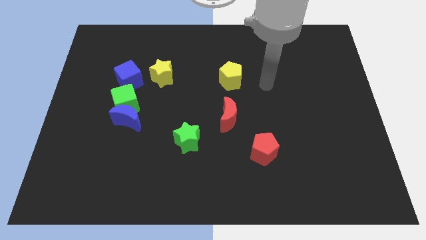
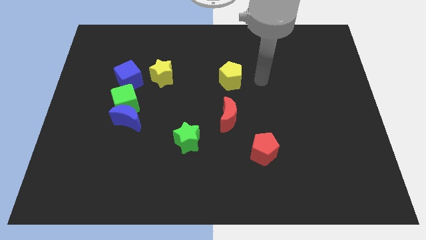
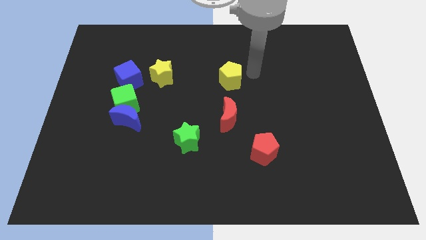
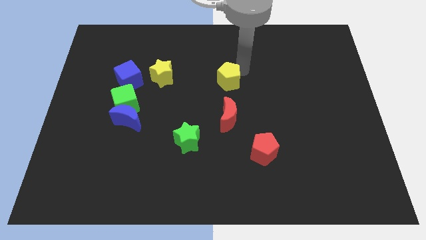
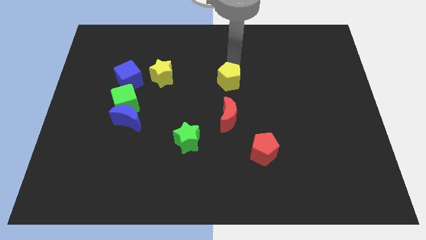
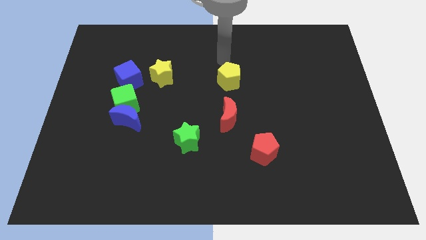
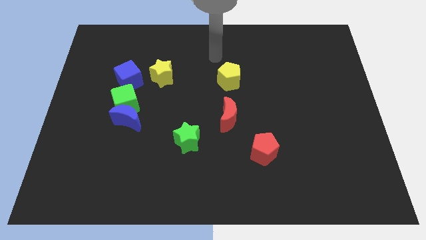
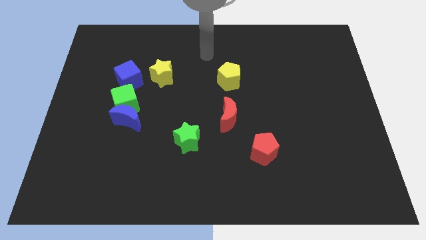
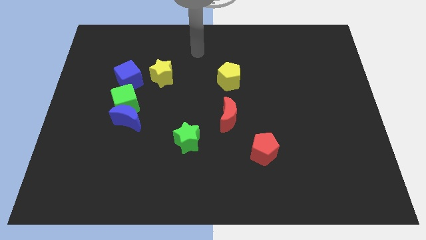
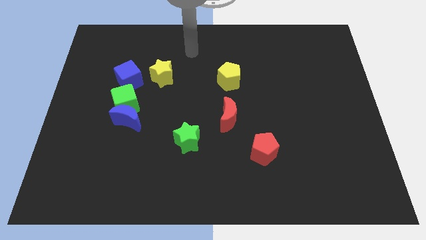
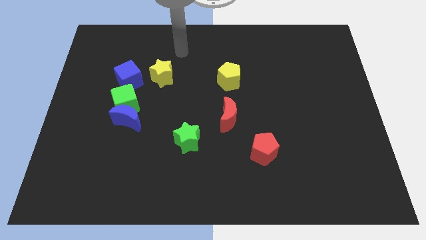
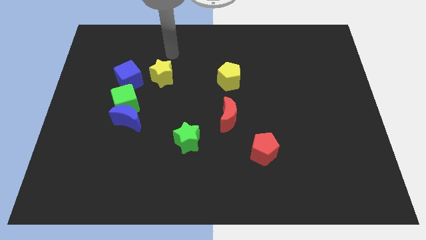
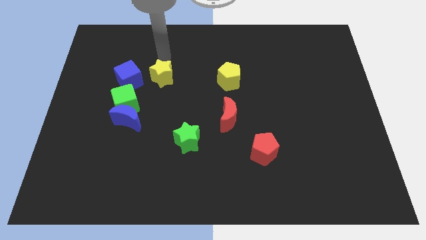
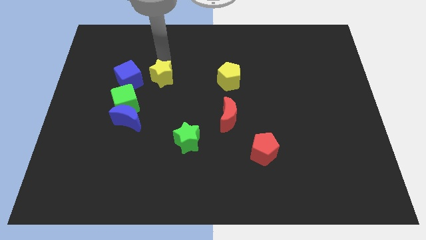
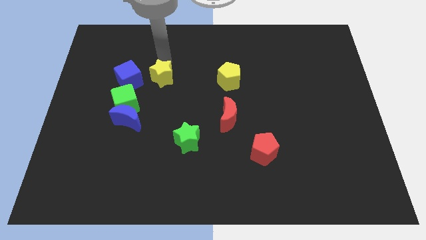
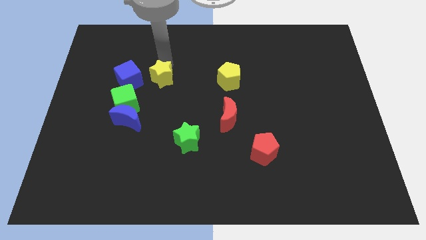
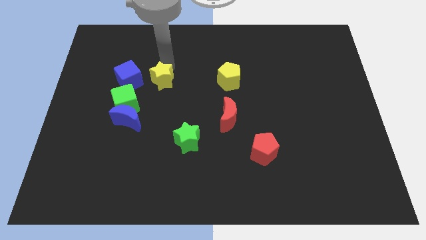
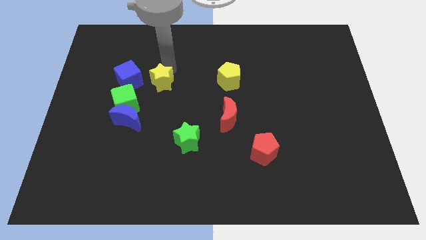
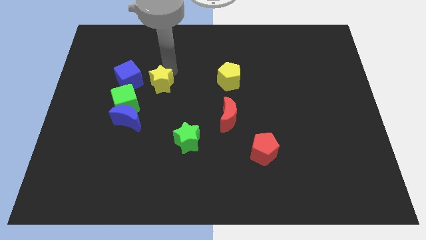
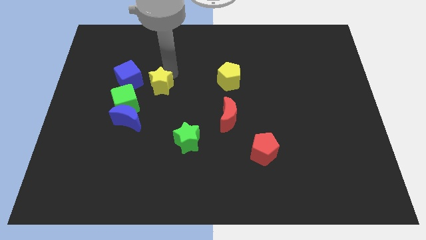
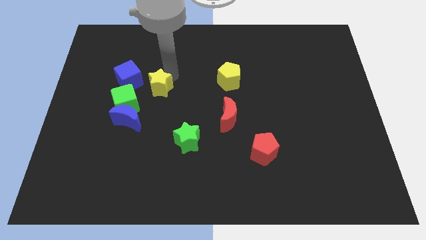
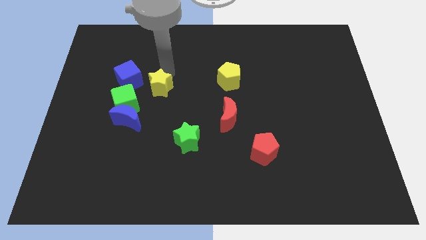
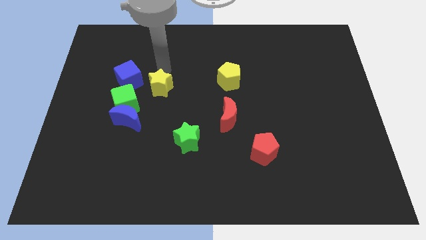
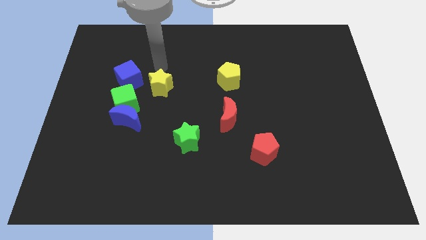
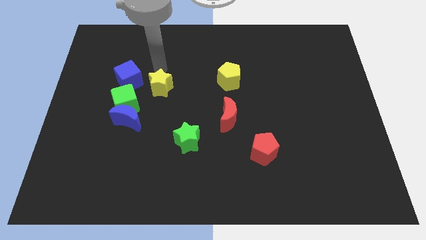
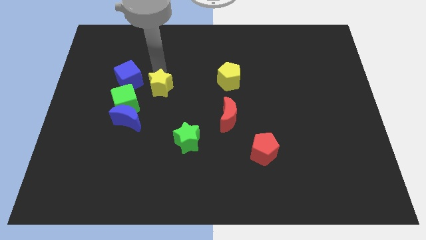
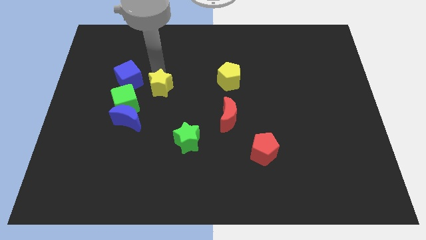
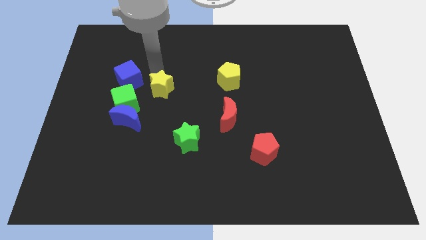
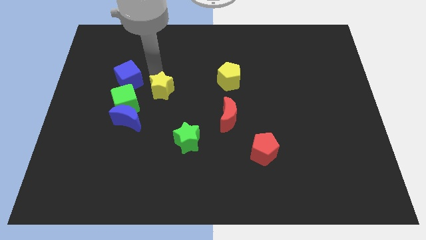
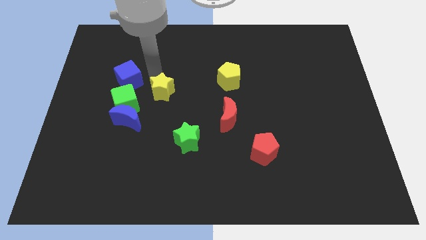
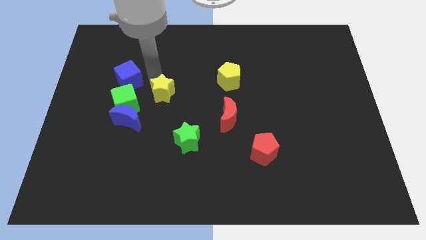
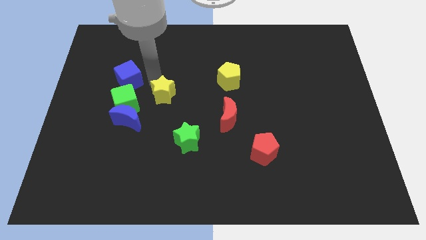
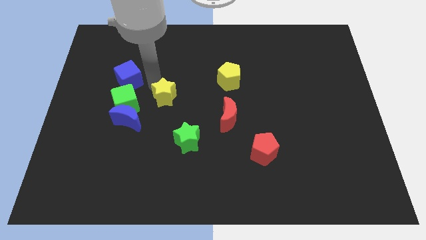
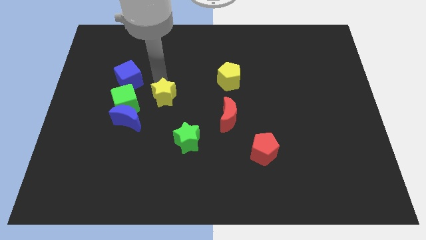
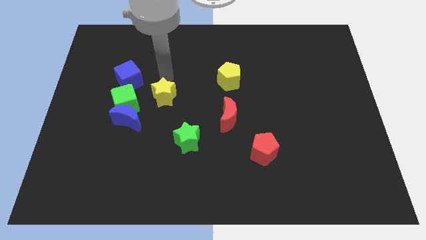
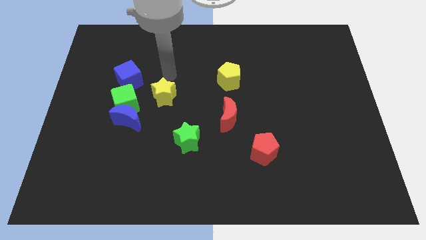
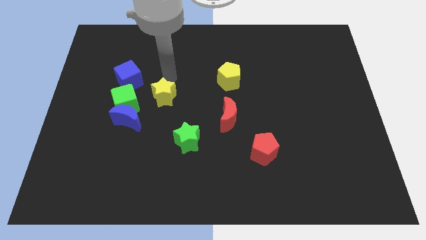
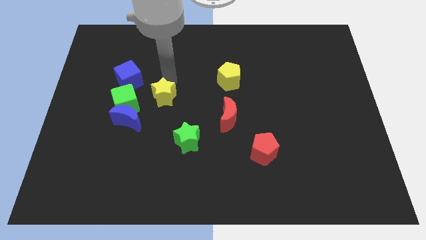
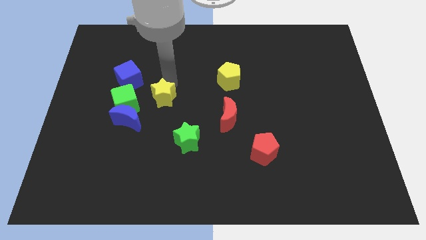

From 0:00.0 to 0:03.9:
slightly push the yellow star down

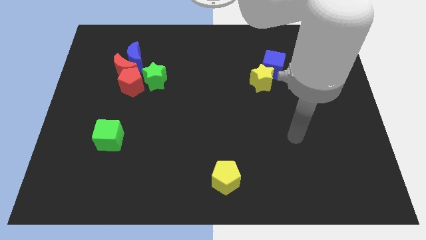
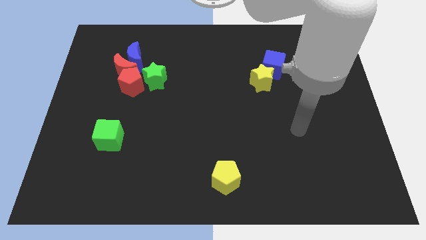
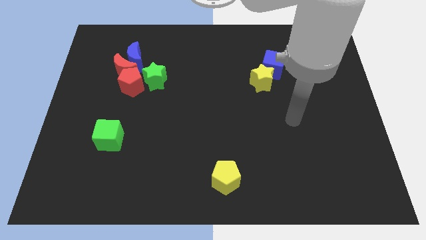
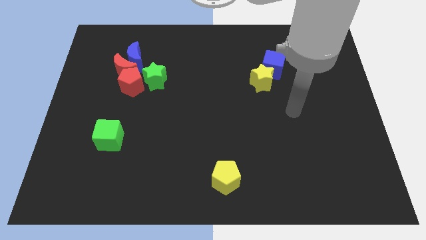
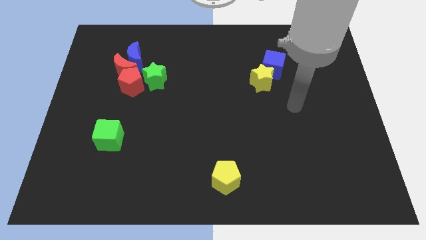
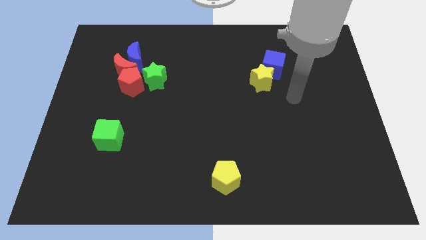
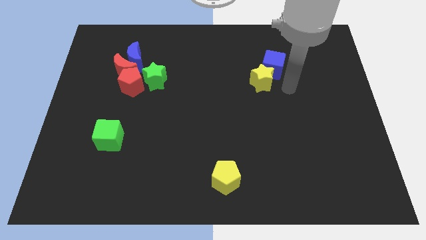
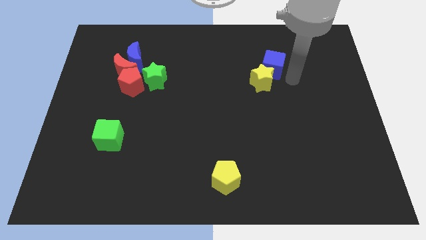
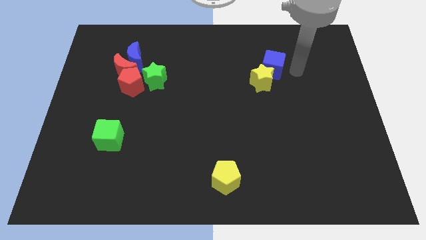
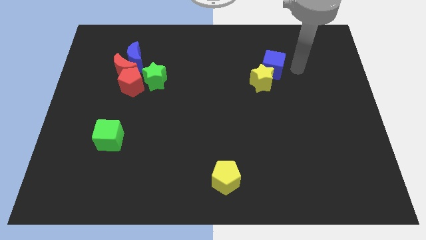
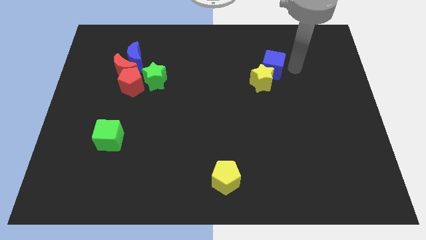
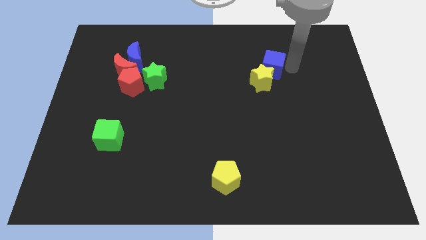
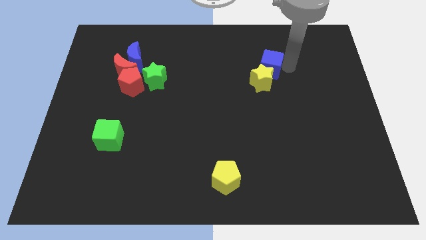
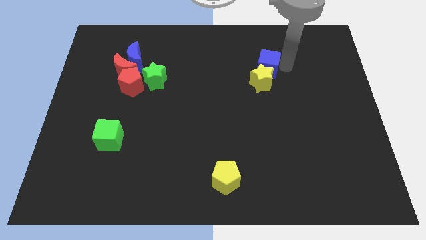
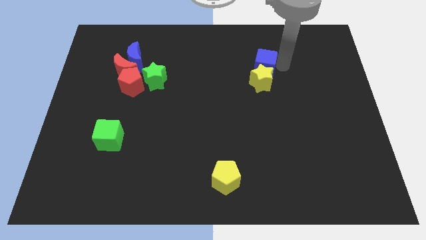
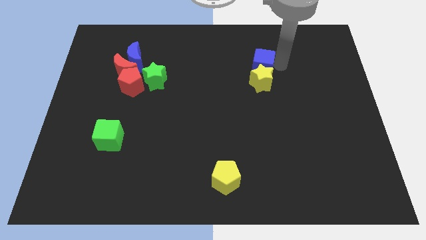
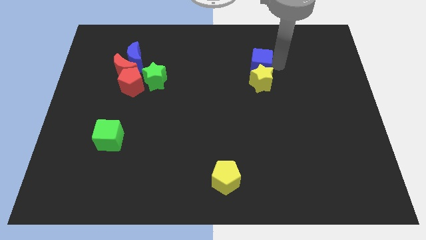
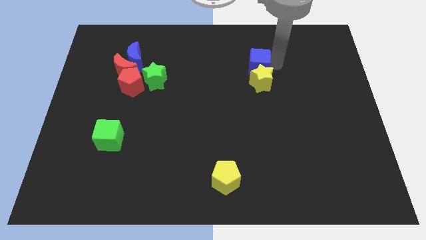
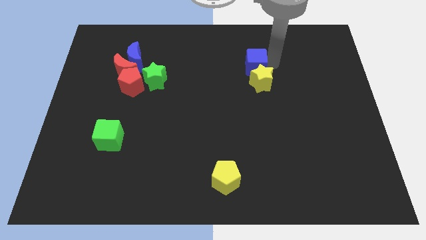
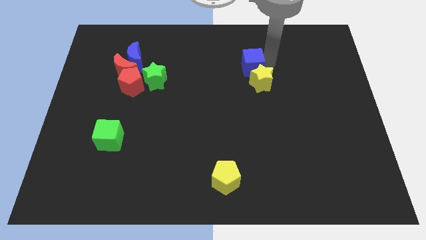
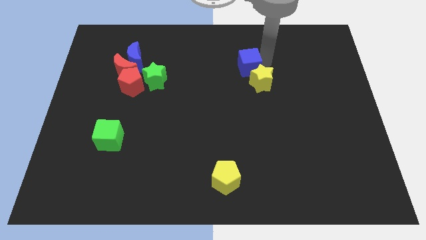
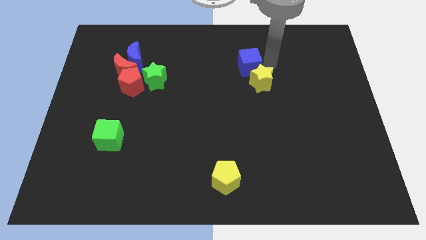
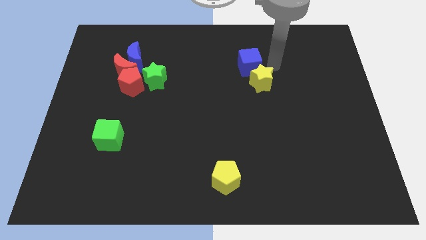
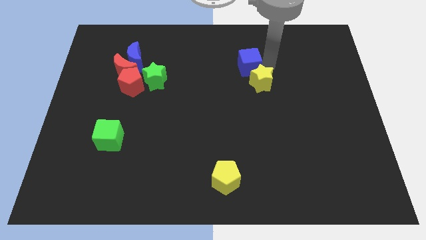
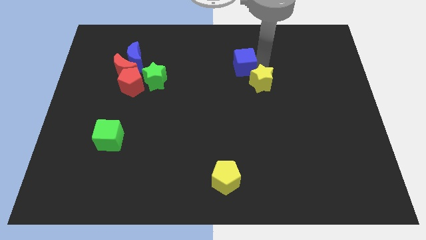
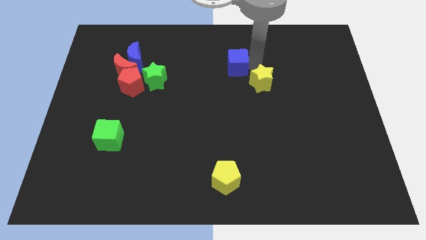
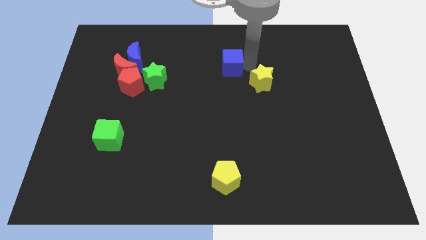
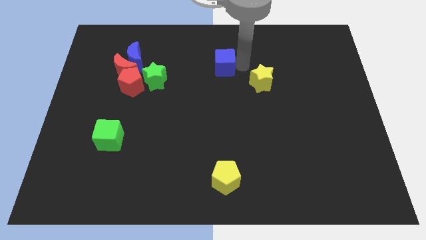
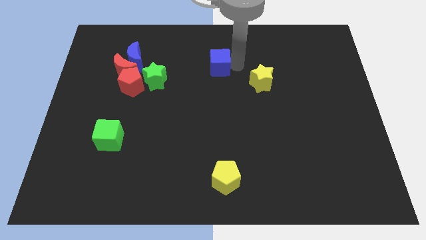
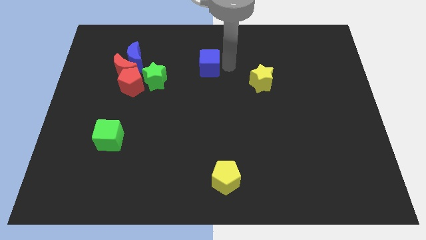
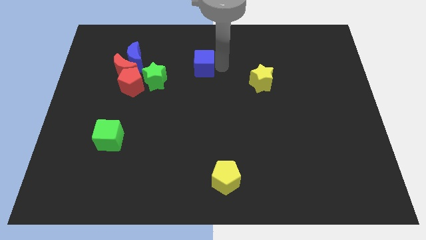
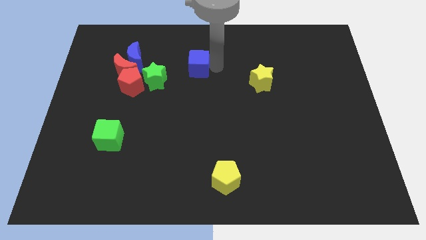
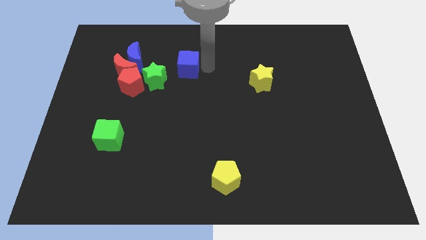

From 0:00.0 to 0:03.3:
move the blue cube left

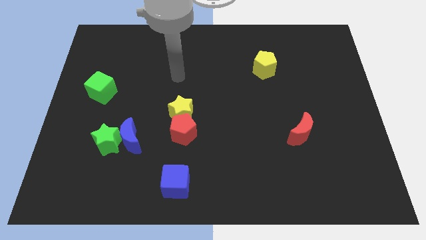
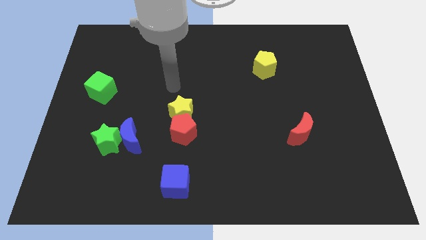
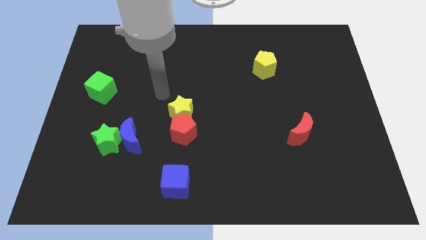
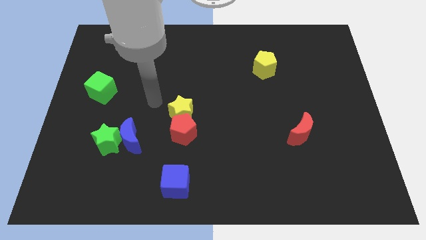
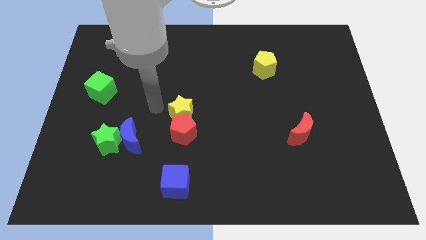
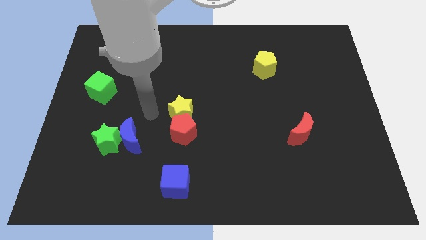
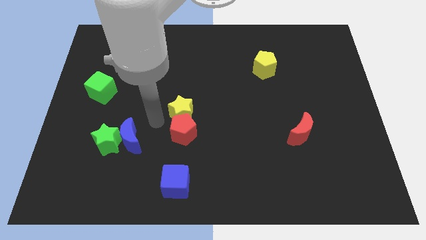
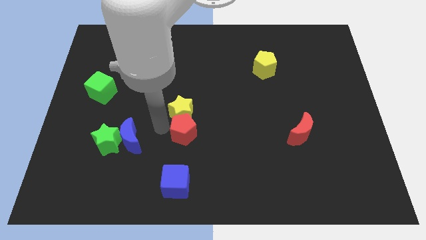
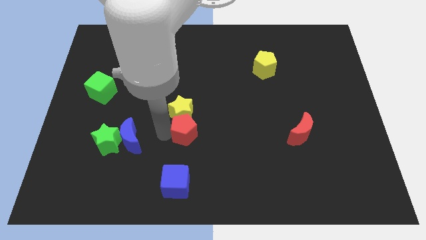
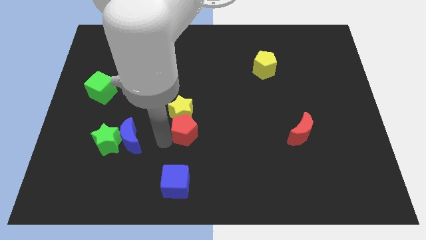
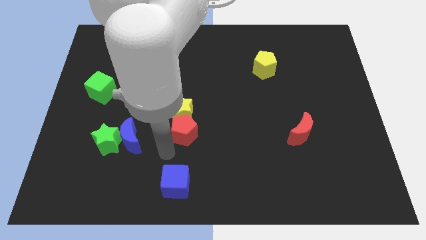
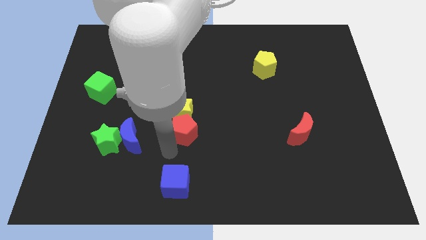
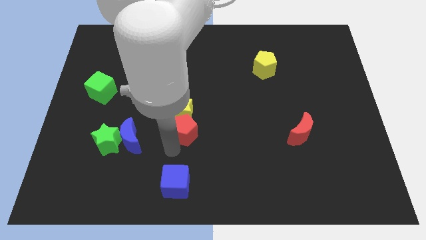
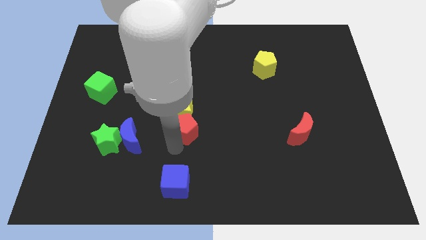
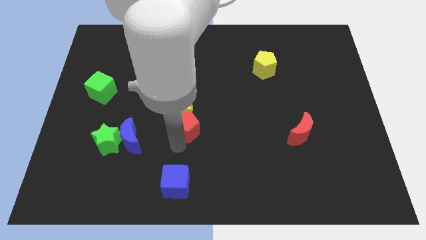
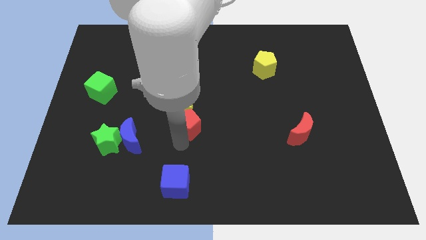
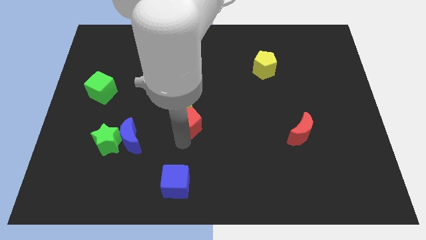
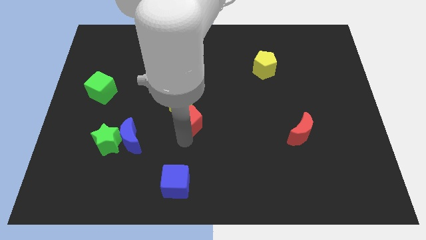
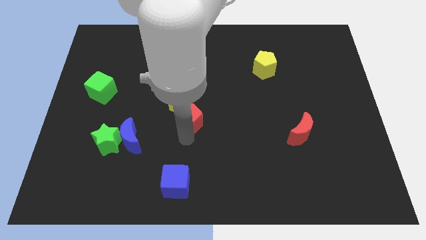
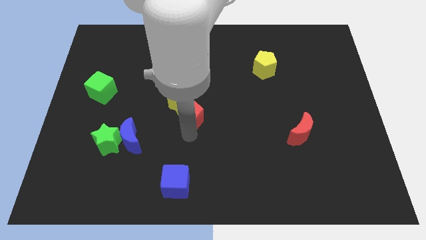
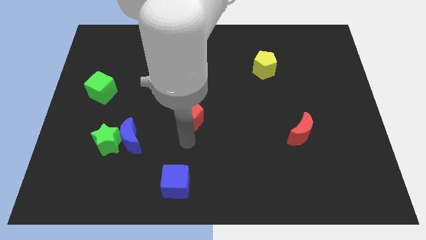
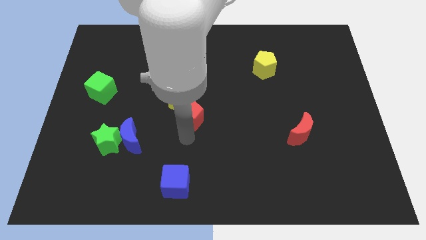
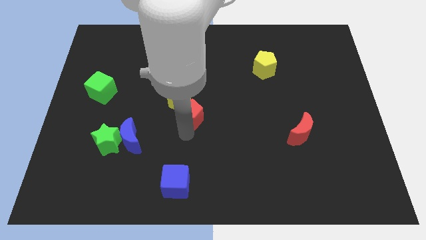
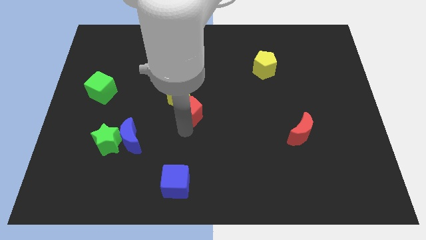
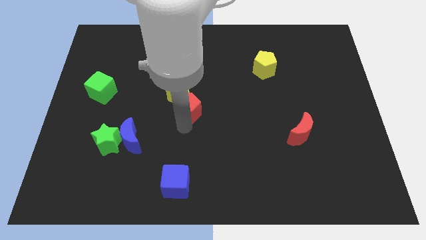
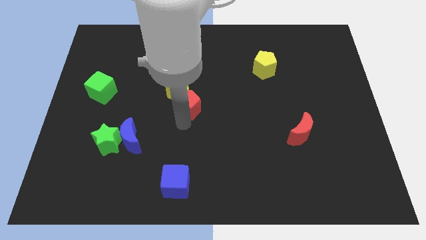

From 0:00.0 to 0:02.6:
slightly slide the red pentagon upwards
